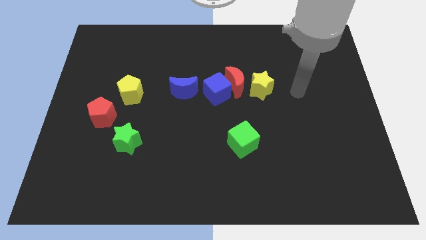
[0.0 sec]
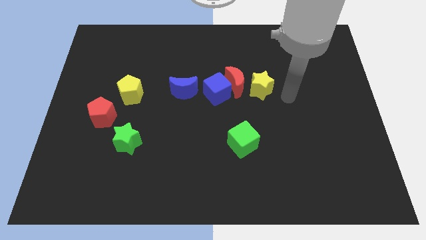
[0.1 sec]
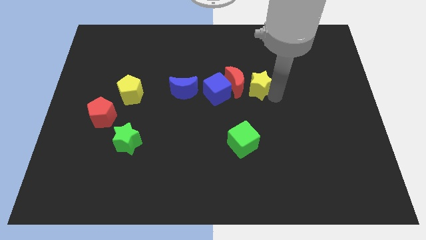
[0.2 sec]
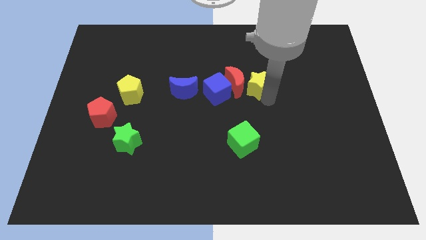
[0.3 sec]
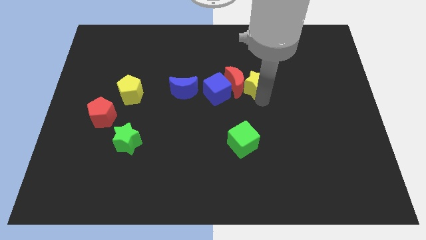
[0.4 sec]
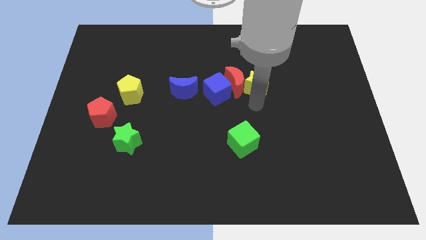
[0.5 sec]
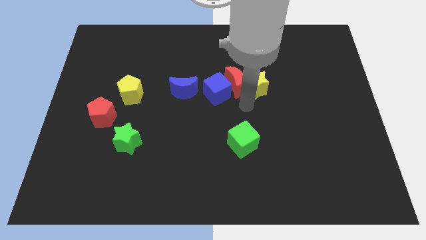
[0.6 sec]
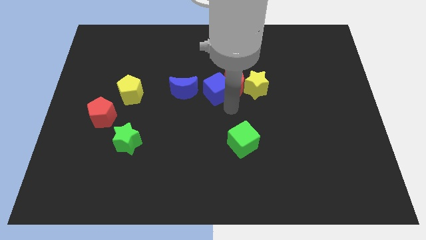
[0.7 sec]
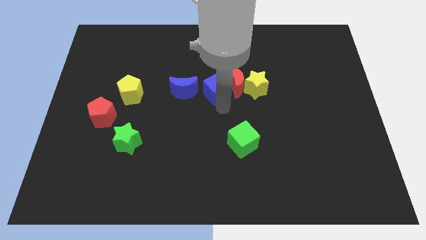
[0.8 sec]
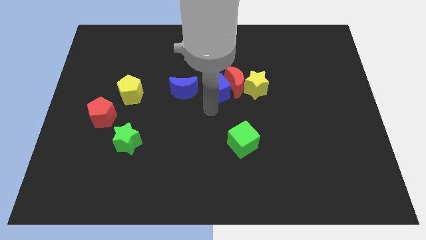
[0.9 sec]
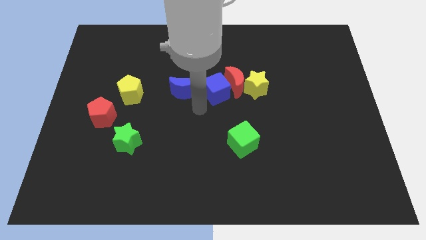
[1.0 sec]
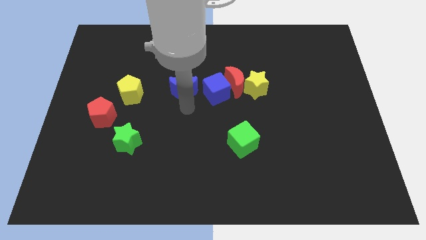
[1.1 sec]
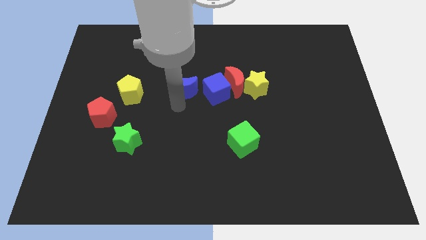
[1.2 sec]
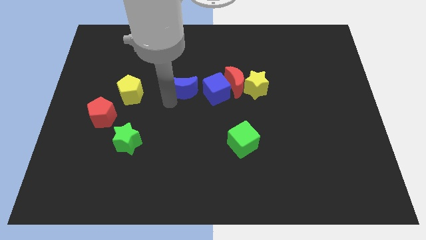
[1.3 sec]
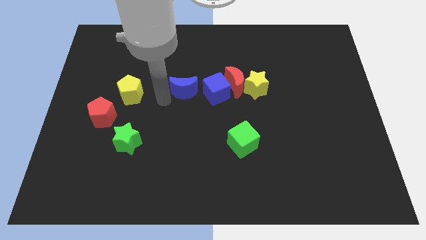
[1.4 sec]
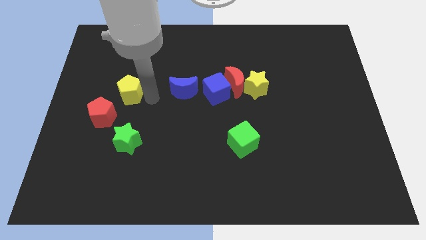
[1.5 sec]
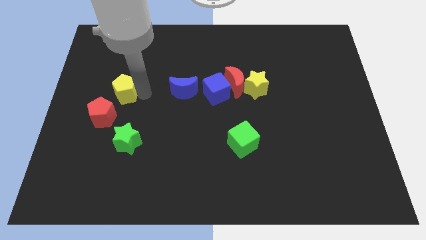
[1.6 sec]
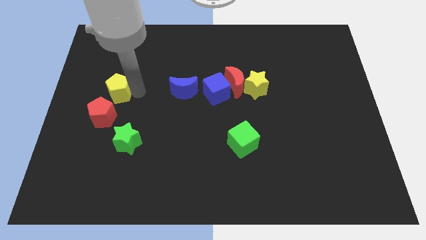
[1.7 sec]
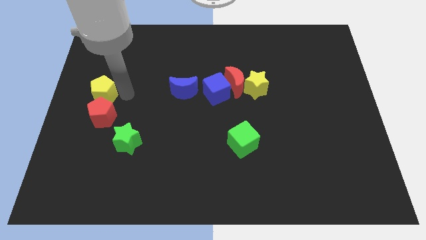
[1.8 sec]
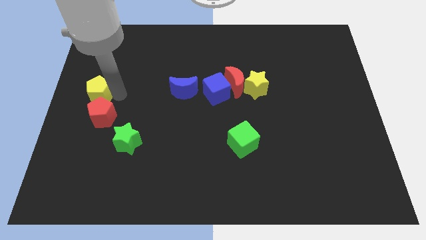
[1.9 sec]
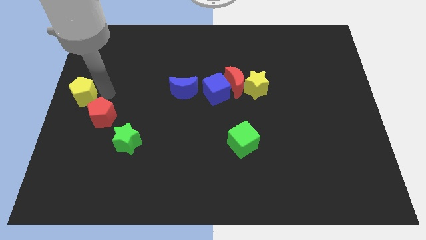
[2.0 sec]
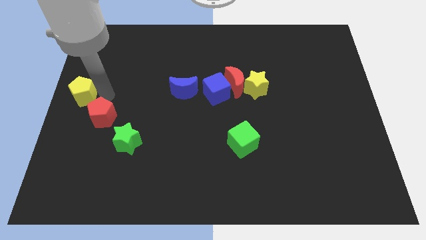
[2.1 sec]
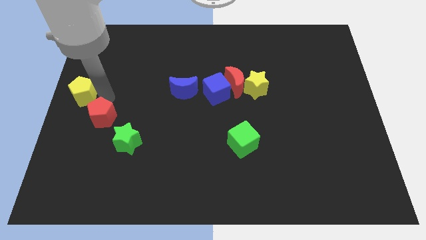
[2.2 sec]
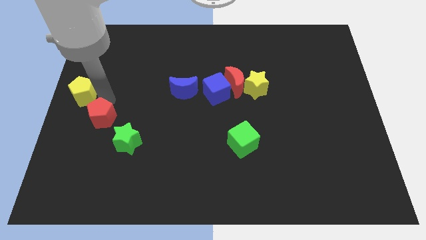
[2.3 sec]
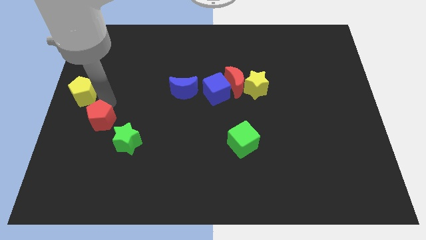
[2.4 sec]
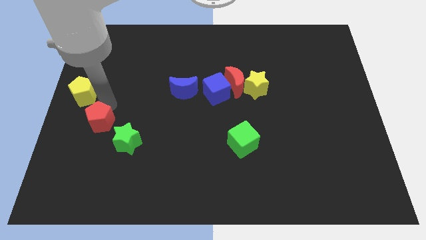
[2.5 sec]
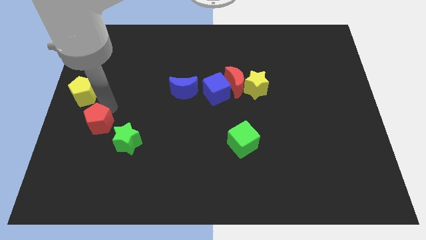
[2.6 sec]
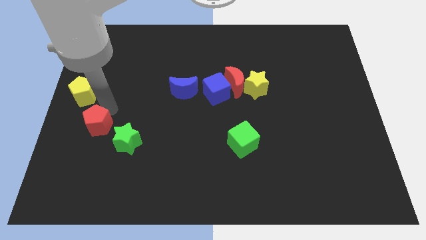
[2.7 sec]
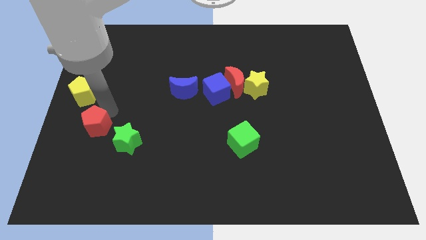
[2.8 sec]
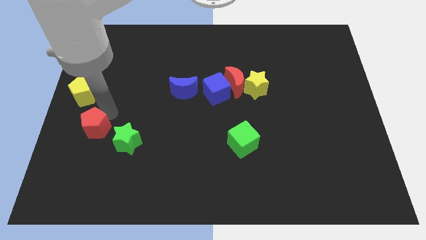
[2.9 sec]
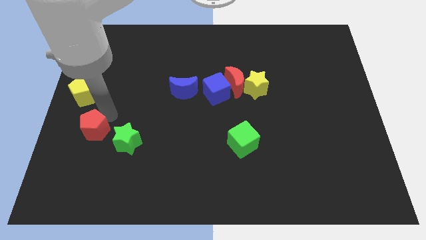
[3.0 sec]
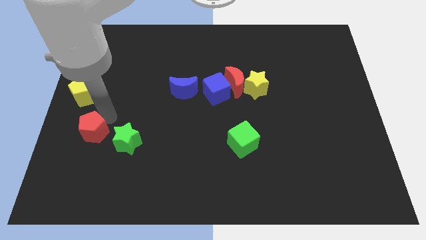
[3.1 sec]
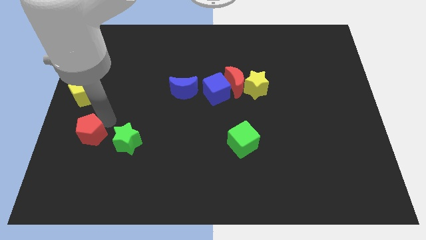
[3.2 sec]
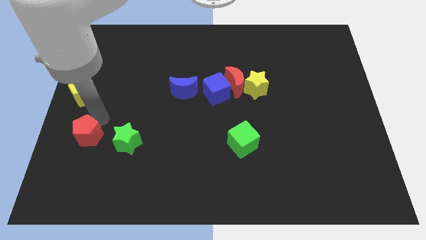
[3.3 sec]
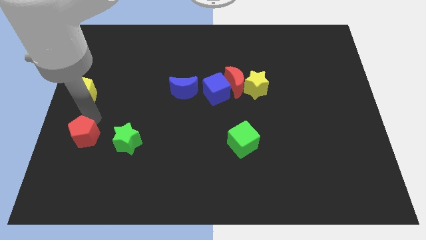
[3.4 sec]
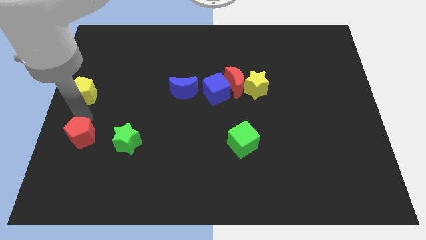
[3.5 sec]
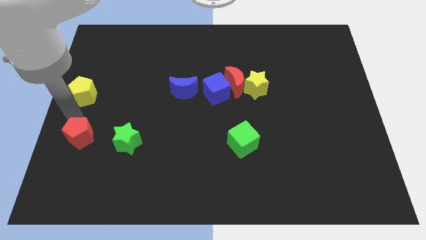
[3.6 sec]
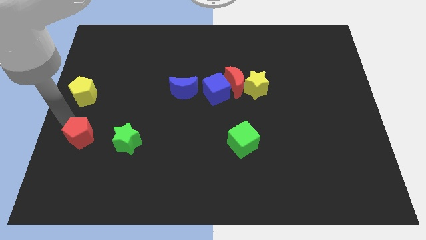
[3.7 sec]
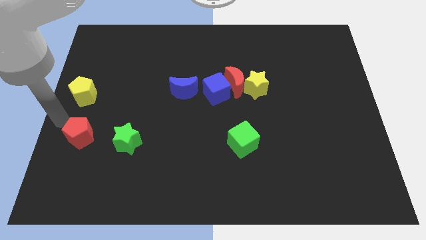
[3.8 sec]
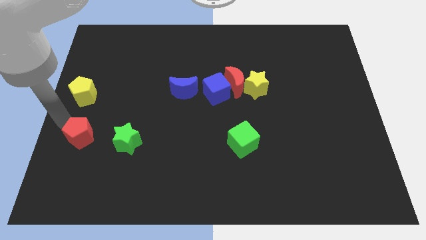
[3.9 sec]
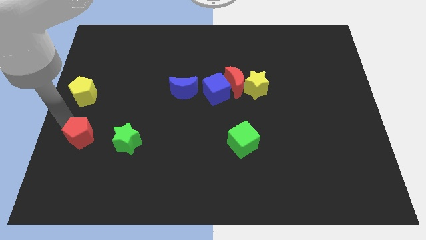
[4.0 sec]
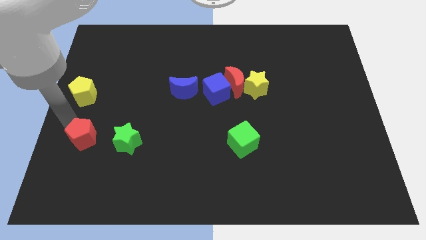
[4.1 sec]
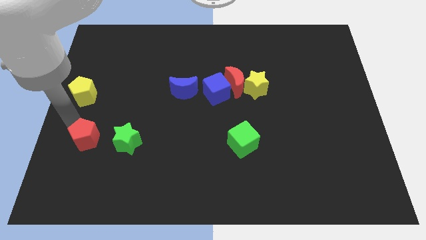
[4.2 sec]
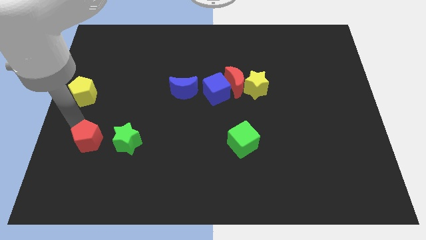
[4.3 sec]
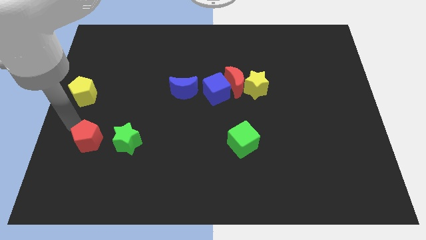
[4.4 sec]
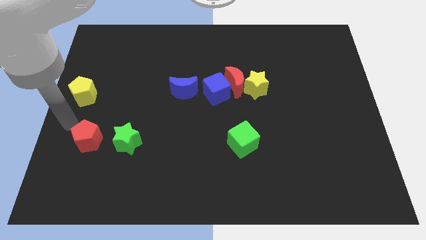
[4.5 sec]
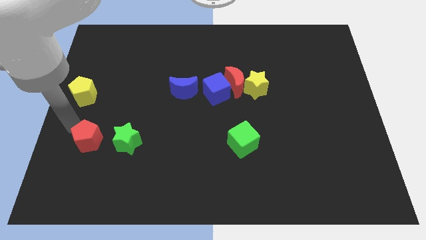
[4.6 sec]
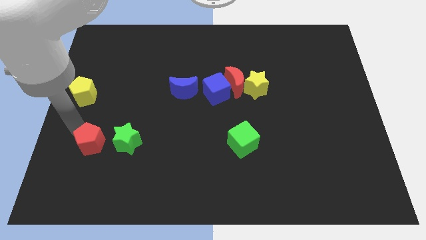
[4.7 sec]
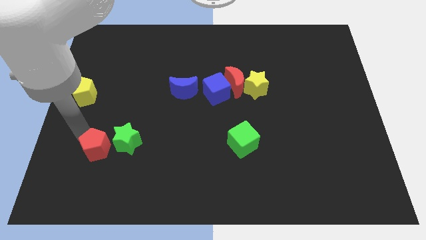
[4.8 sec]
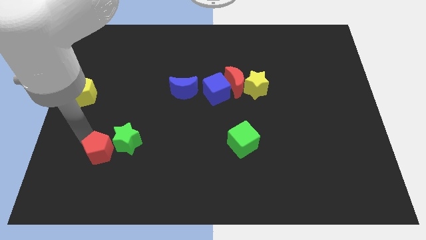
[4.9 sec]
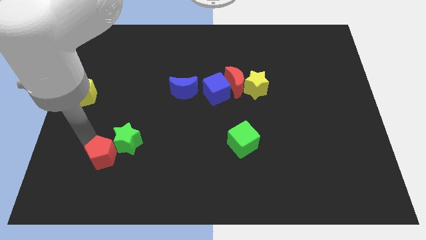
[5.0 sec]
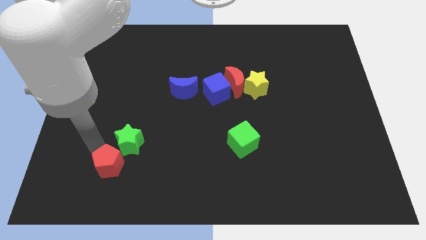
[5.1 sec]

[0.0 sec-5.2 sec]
move the red pentagon to the bottom side of the green star

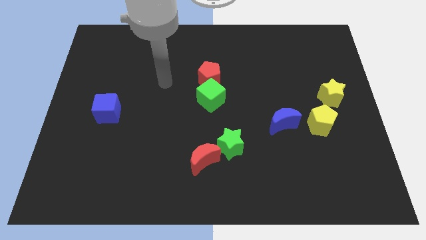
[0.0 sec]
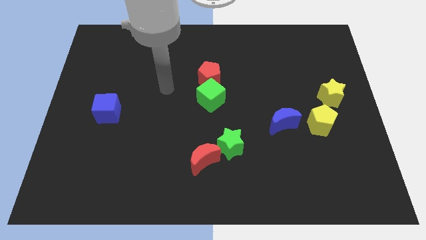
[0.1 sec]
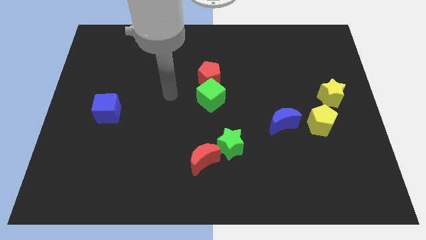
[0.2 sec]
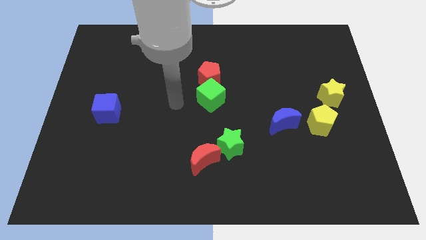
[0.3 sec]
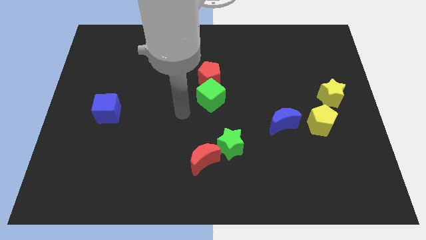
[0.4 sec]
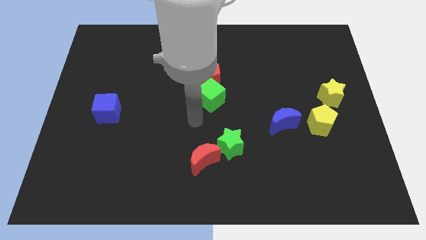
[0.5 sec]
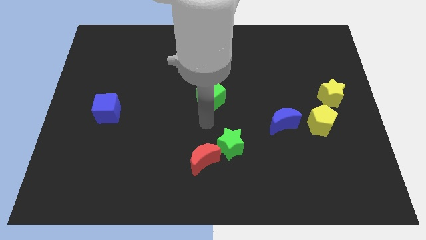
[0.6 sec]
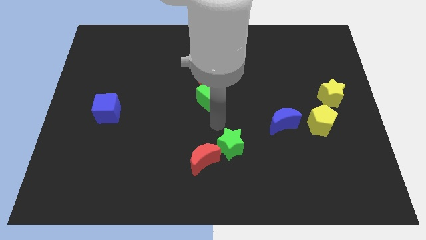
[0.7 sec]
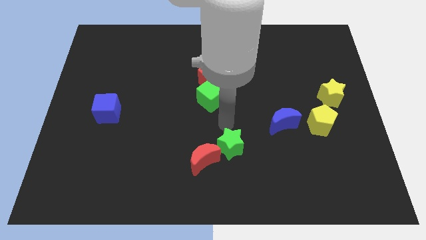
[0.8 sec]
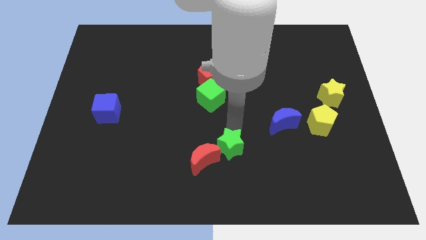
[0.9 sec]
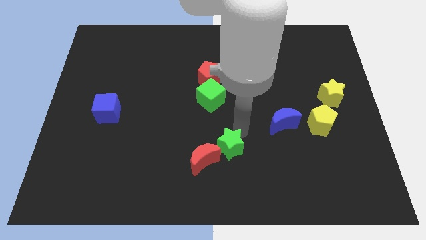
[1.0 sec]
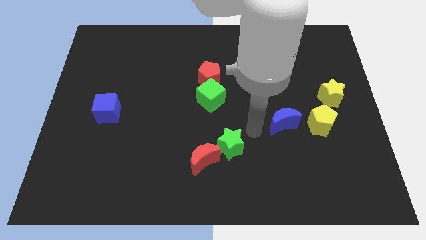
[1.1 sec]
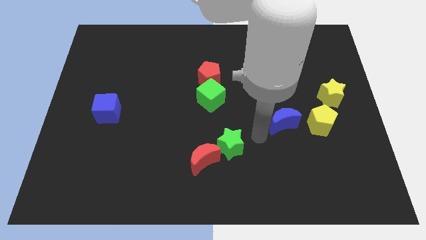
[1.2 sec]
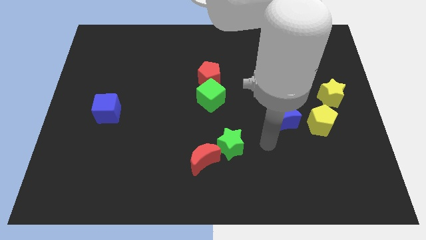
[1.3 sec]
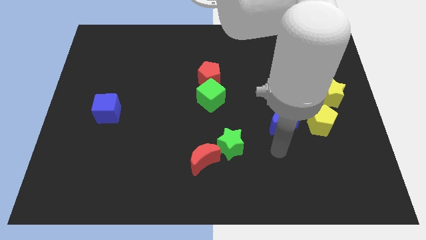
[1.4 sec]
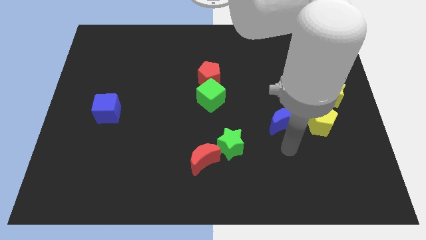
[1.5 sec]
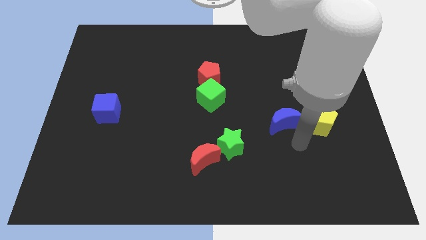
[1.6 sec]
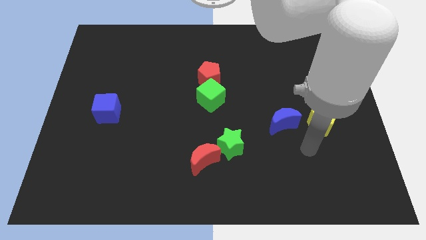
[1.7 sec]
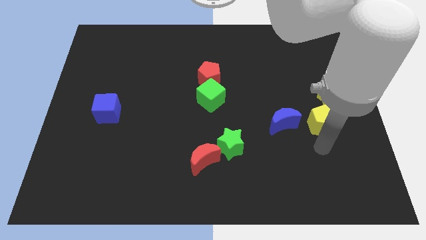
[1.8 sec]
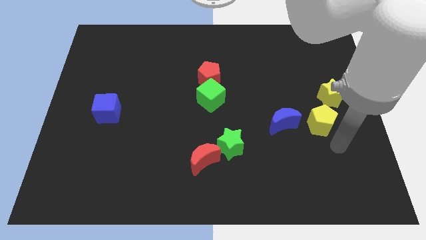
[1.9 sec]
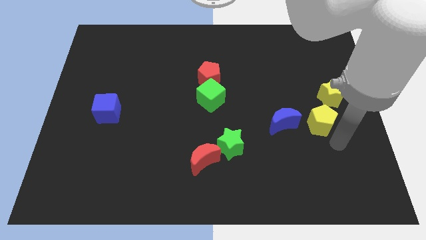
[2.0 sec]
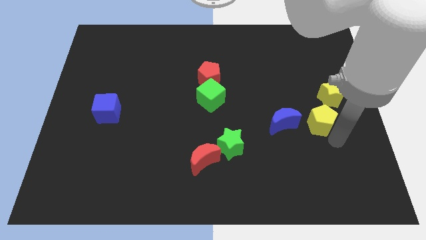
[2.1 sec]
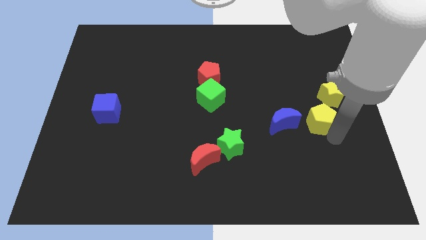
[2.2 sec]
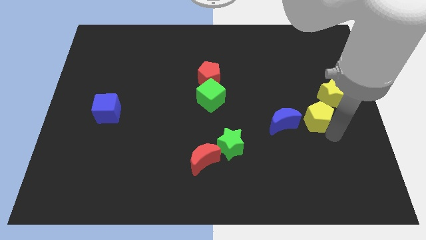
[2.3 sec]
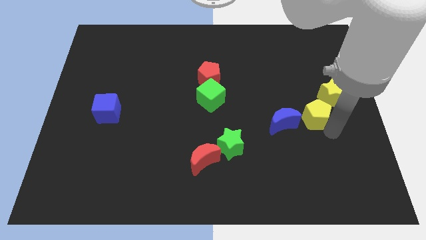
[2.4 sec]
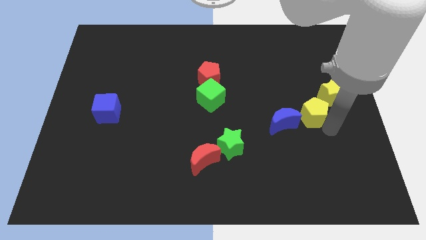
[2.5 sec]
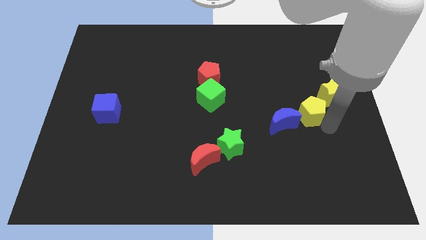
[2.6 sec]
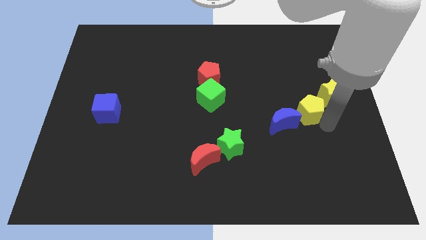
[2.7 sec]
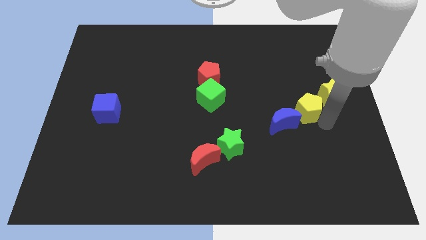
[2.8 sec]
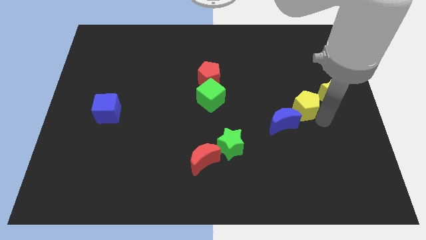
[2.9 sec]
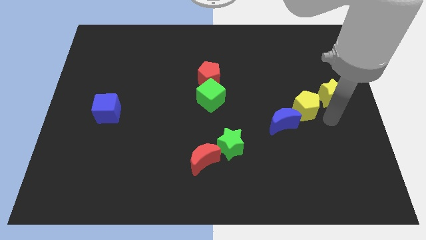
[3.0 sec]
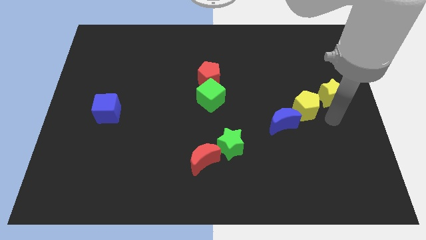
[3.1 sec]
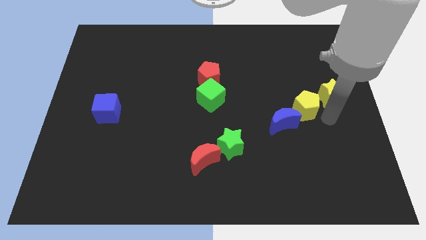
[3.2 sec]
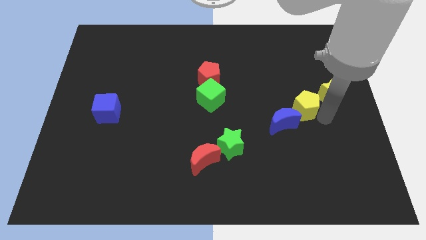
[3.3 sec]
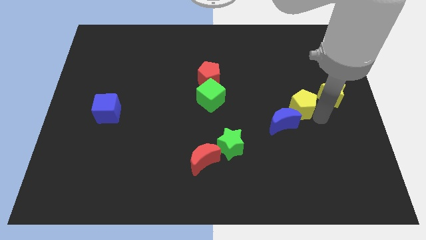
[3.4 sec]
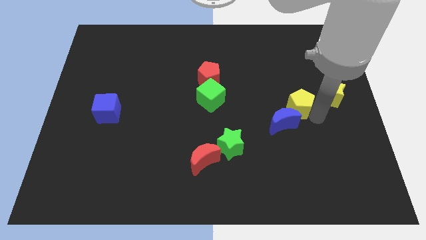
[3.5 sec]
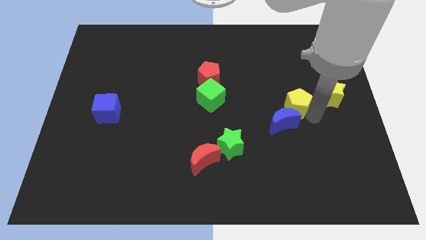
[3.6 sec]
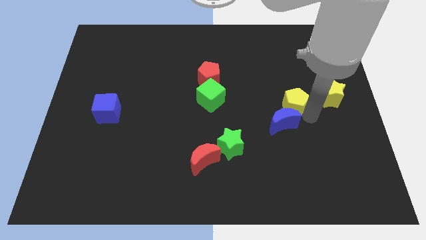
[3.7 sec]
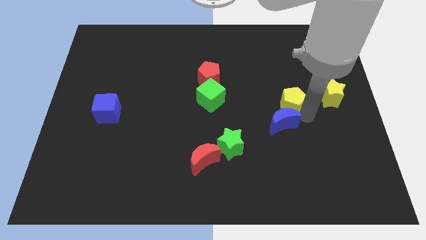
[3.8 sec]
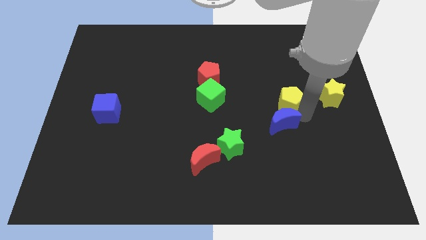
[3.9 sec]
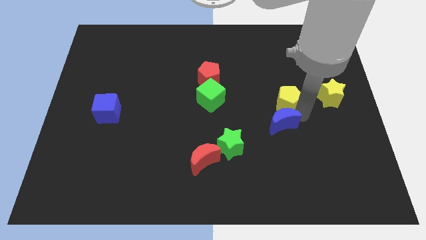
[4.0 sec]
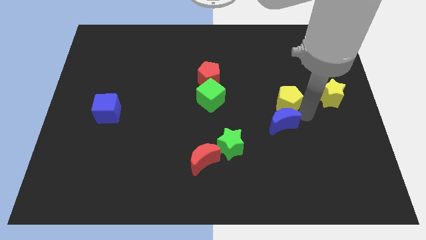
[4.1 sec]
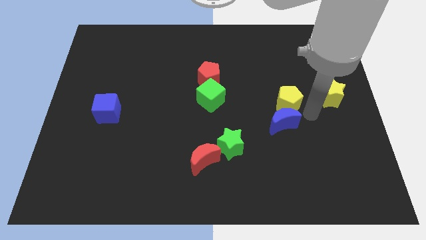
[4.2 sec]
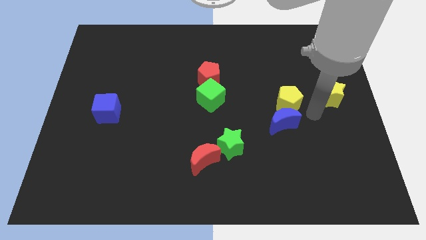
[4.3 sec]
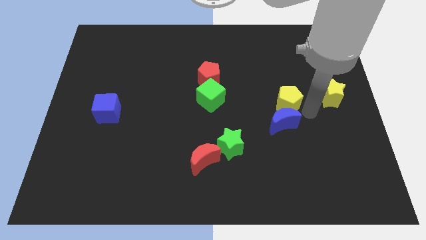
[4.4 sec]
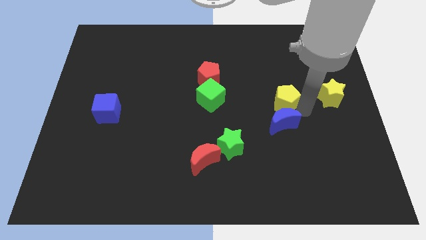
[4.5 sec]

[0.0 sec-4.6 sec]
move the yellow pentagon to the top left side of the blue moon